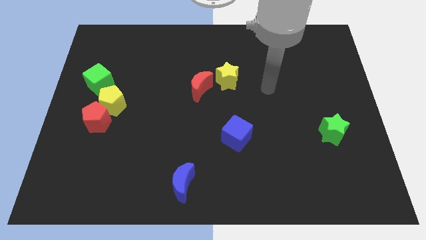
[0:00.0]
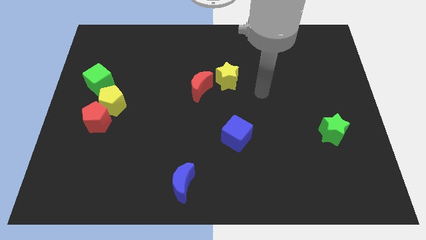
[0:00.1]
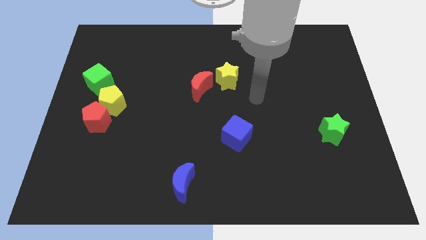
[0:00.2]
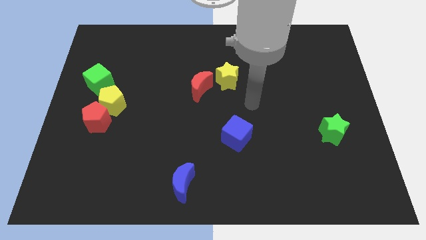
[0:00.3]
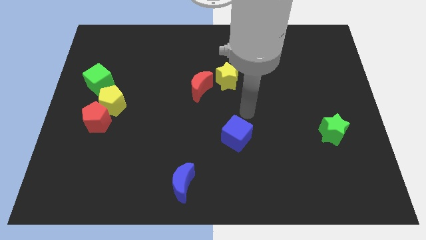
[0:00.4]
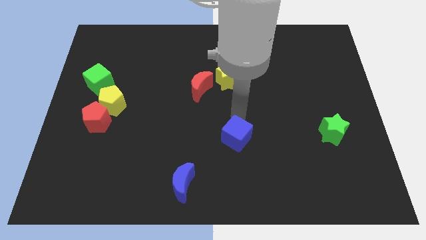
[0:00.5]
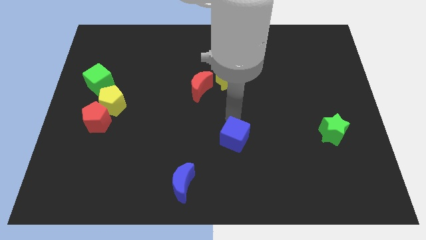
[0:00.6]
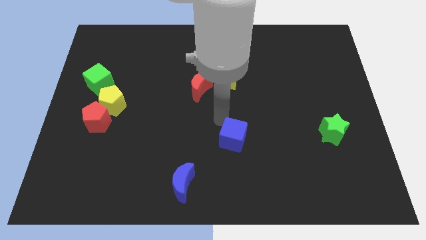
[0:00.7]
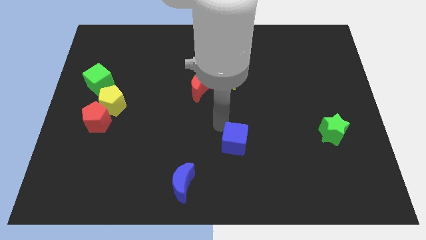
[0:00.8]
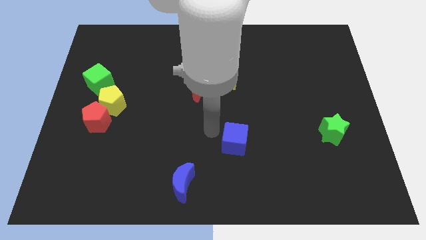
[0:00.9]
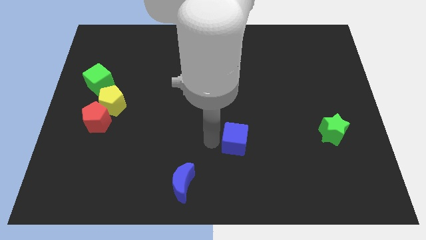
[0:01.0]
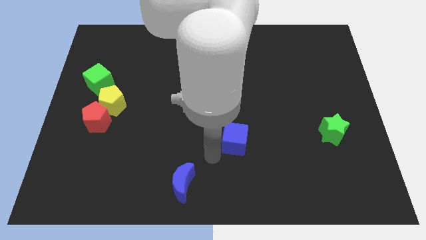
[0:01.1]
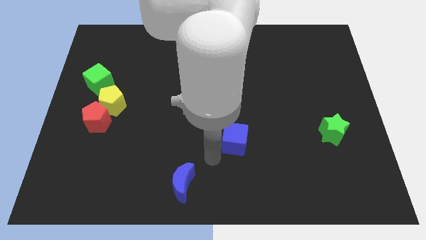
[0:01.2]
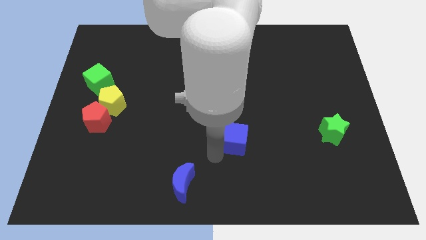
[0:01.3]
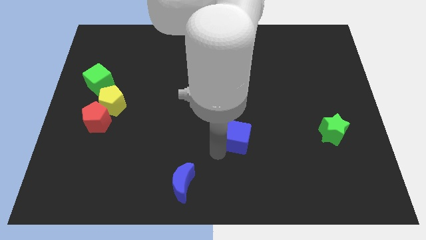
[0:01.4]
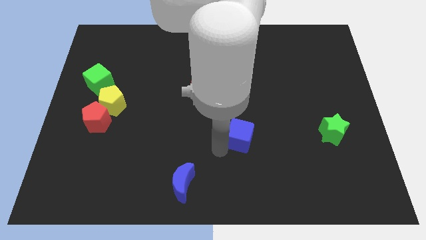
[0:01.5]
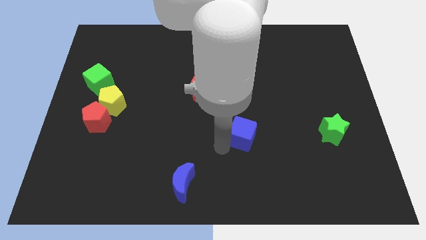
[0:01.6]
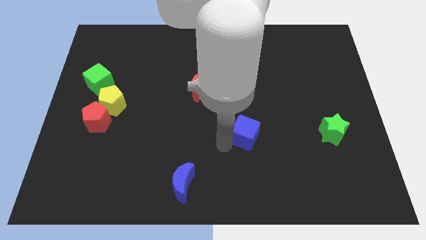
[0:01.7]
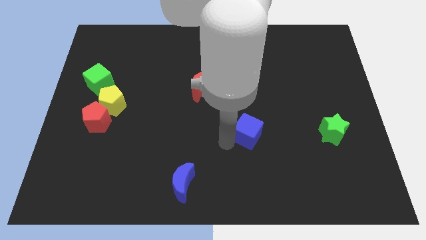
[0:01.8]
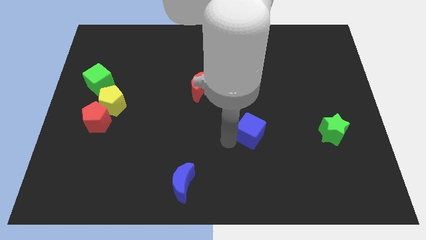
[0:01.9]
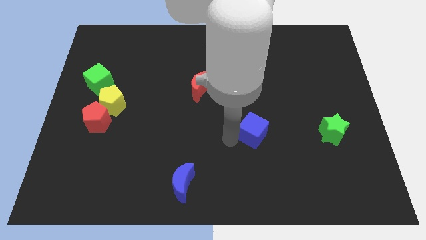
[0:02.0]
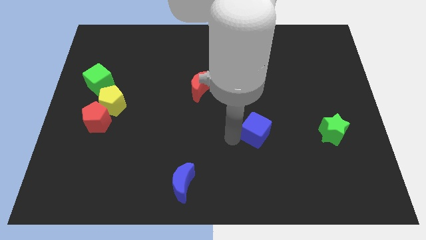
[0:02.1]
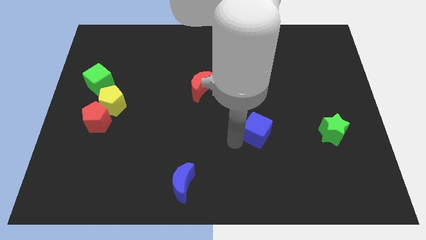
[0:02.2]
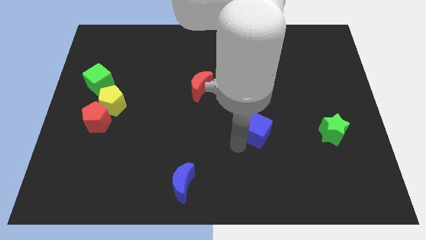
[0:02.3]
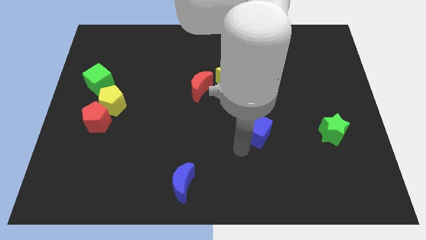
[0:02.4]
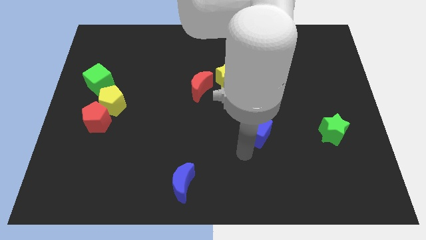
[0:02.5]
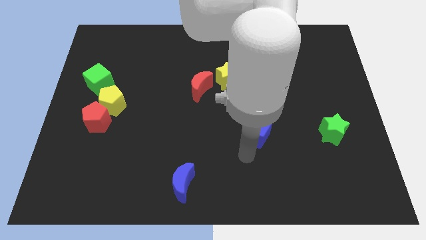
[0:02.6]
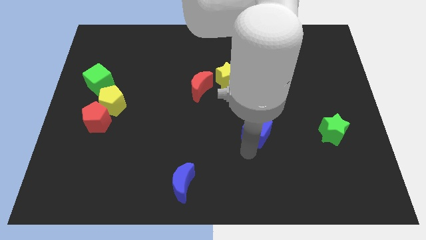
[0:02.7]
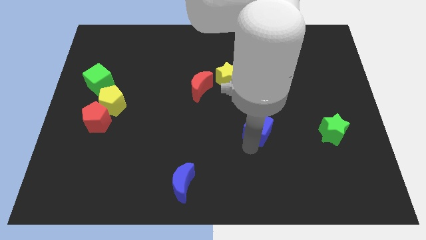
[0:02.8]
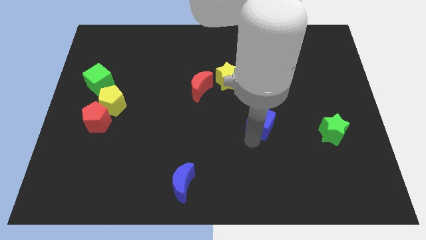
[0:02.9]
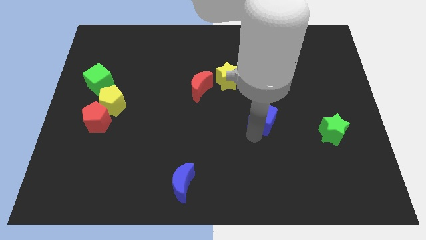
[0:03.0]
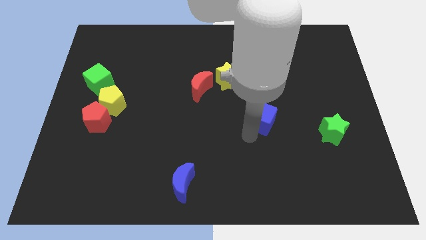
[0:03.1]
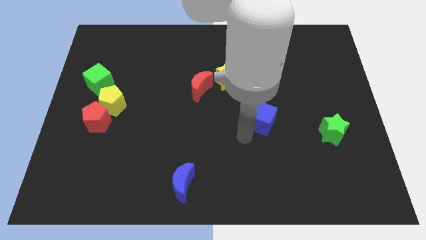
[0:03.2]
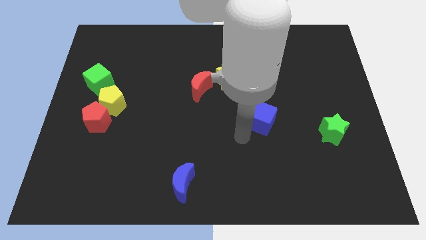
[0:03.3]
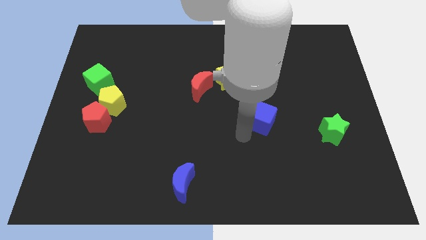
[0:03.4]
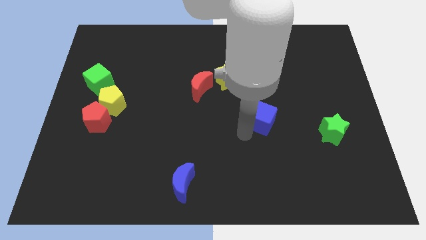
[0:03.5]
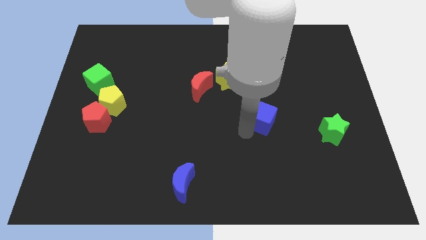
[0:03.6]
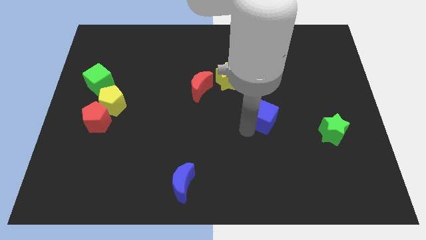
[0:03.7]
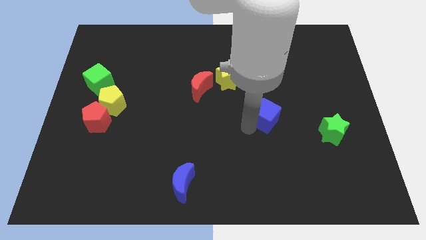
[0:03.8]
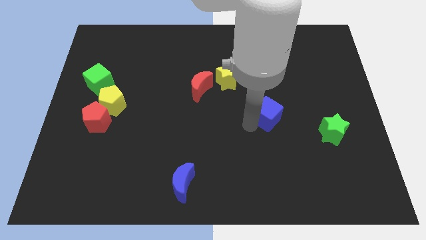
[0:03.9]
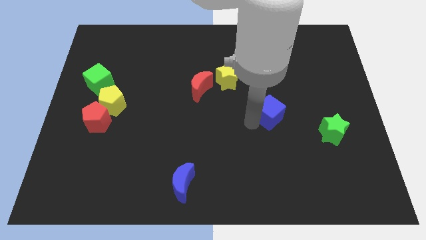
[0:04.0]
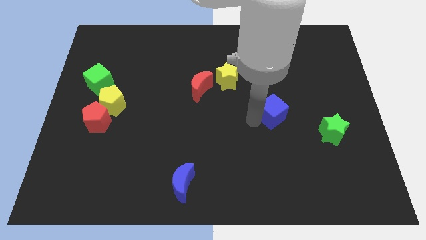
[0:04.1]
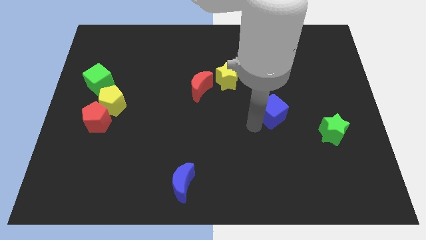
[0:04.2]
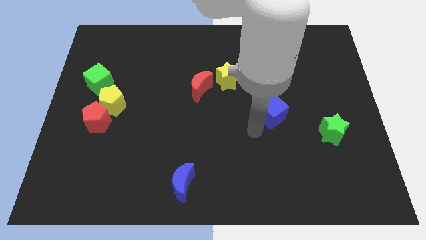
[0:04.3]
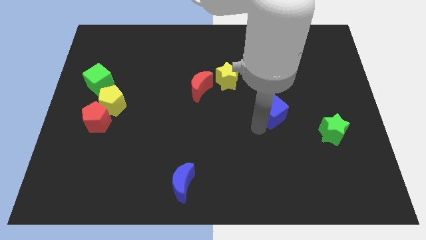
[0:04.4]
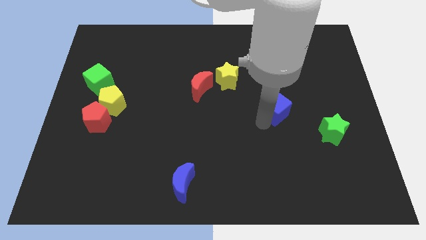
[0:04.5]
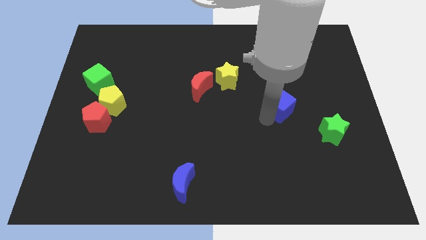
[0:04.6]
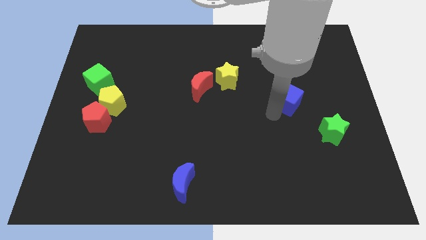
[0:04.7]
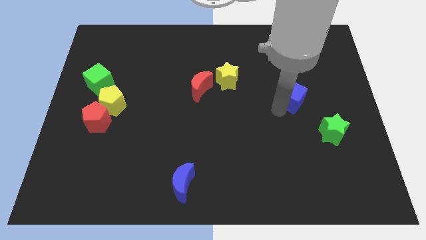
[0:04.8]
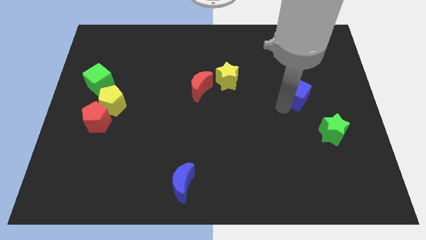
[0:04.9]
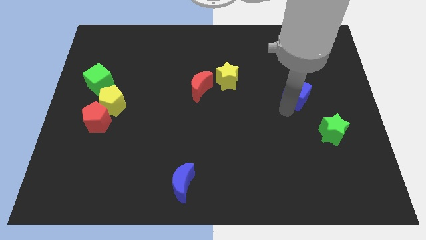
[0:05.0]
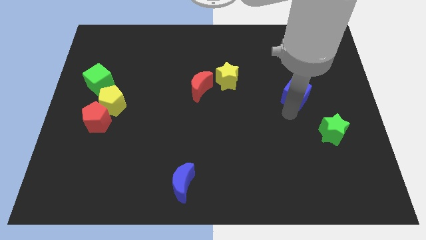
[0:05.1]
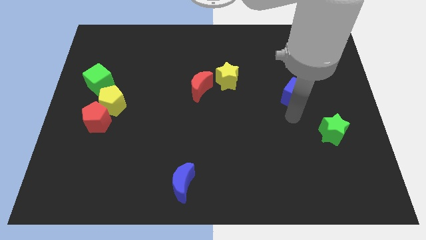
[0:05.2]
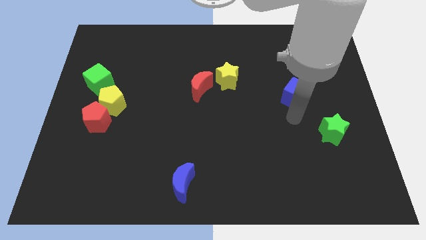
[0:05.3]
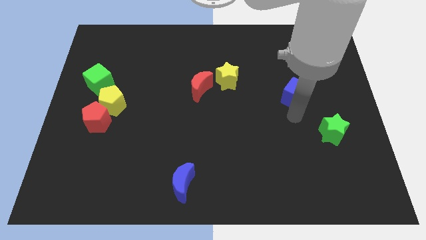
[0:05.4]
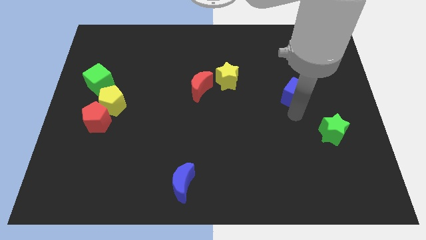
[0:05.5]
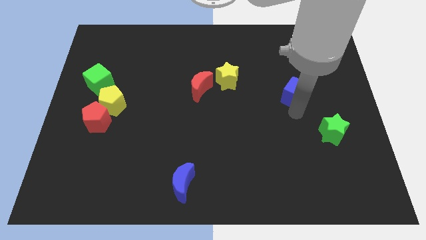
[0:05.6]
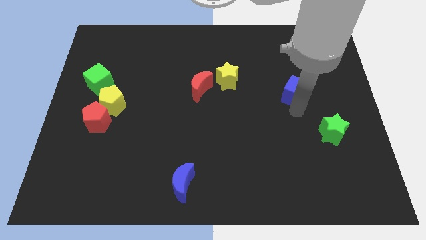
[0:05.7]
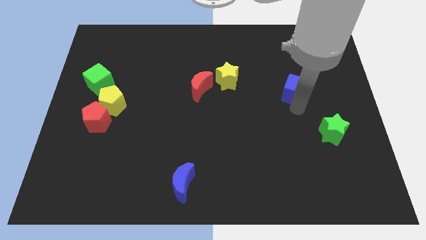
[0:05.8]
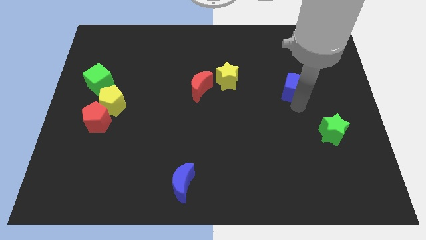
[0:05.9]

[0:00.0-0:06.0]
push the blue cube up and to the right

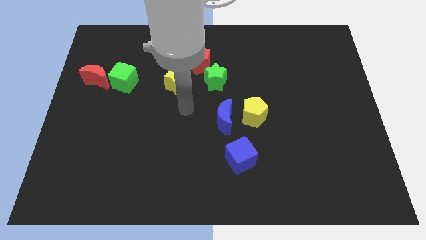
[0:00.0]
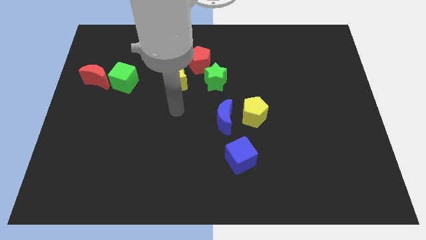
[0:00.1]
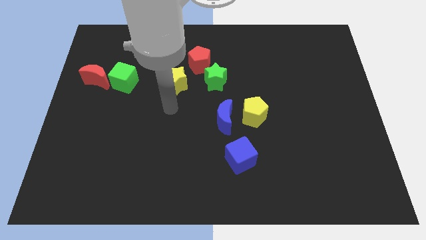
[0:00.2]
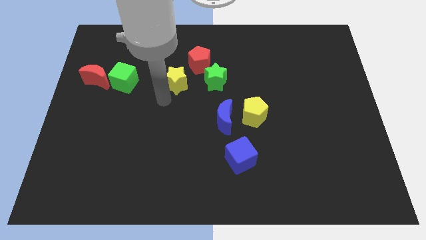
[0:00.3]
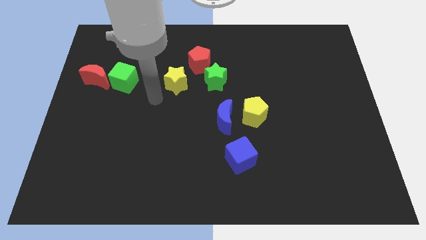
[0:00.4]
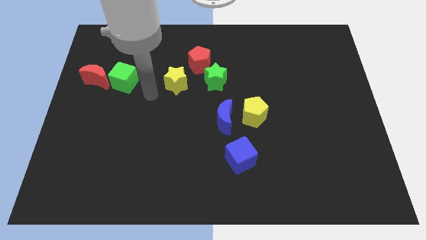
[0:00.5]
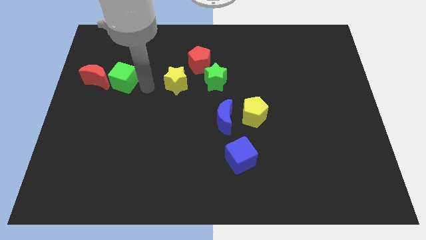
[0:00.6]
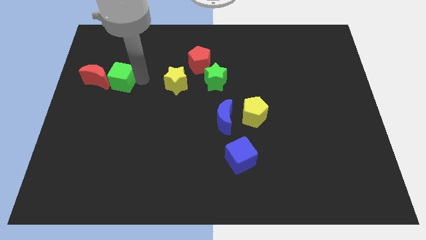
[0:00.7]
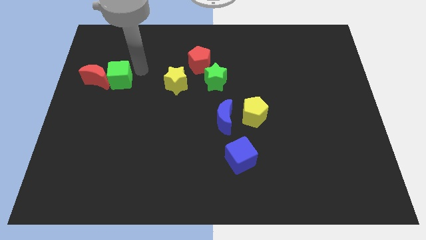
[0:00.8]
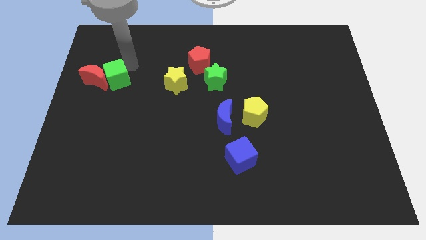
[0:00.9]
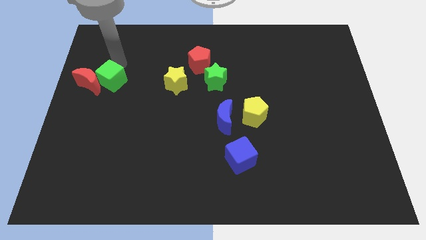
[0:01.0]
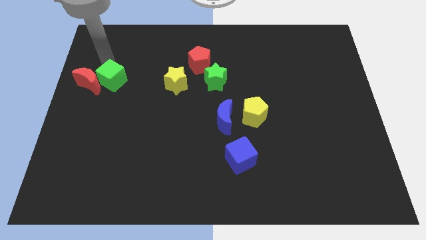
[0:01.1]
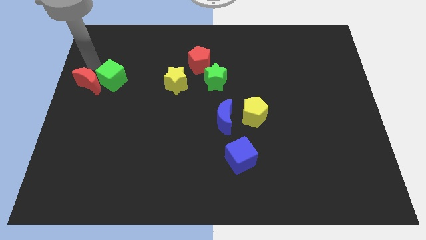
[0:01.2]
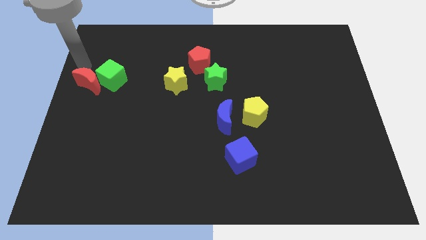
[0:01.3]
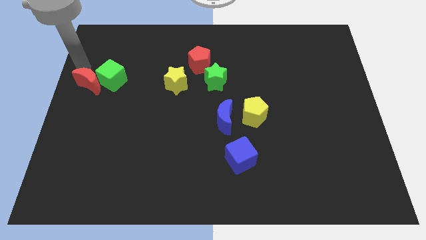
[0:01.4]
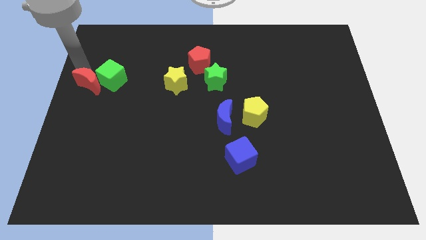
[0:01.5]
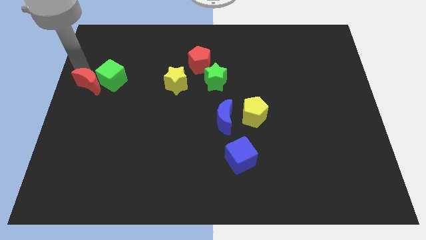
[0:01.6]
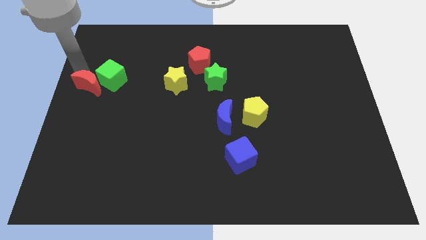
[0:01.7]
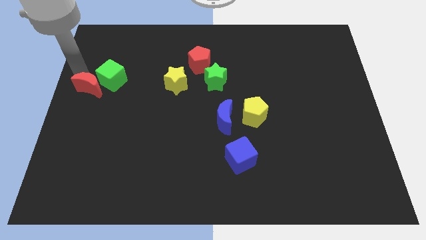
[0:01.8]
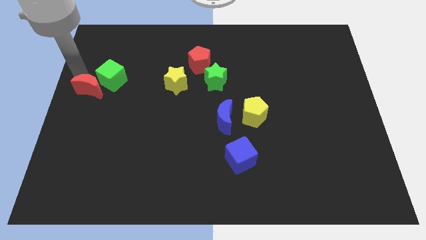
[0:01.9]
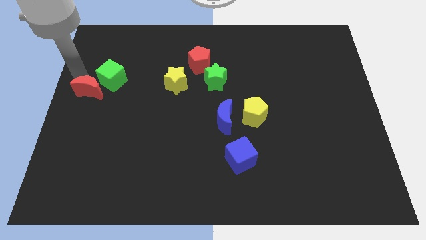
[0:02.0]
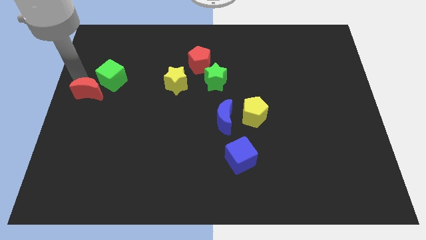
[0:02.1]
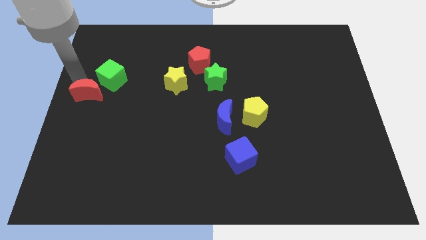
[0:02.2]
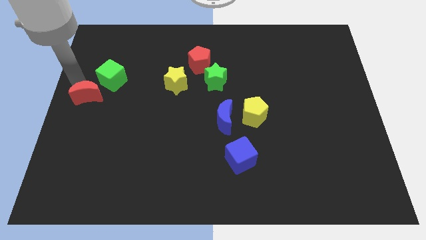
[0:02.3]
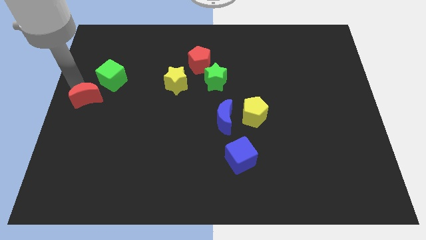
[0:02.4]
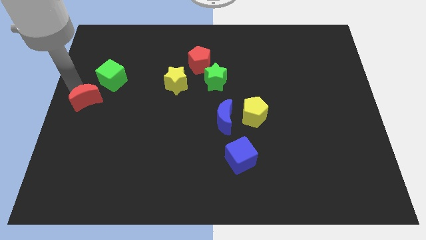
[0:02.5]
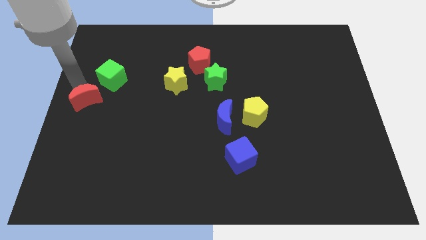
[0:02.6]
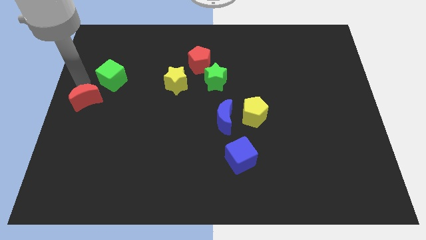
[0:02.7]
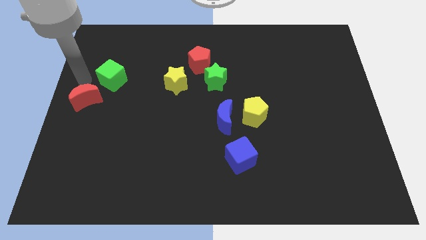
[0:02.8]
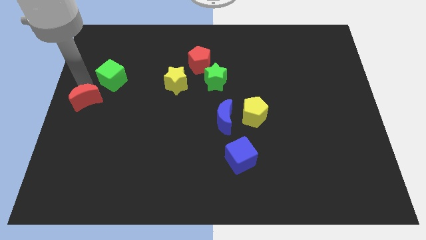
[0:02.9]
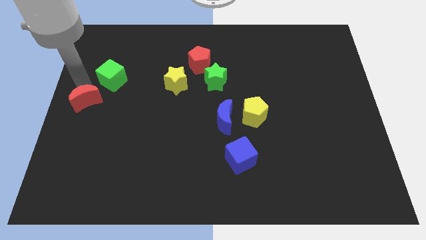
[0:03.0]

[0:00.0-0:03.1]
push the red moon slightly down
